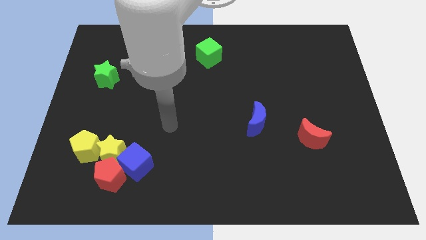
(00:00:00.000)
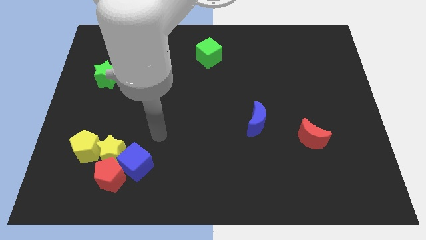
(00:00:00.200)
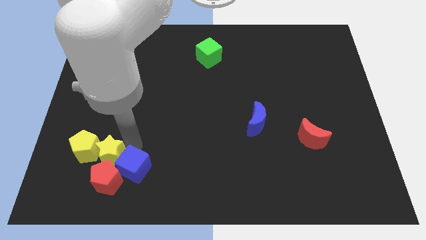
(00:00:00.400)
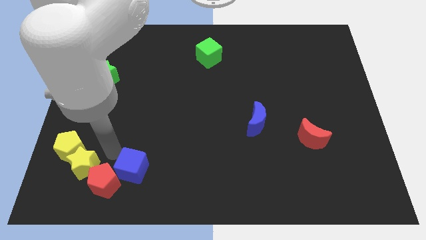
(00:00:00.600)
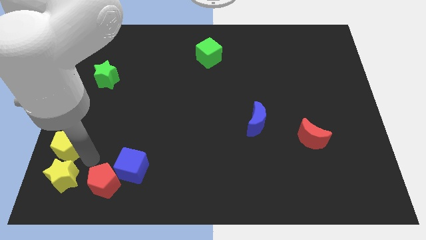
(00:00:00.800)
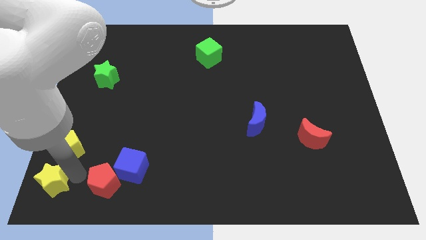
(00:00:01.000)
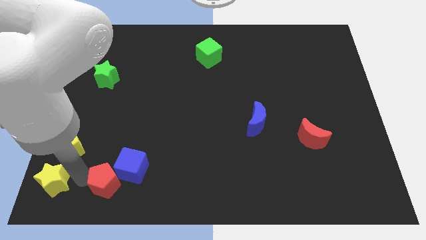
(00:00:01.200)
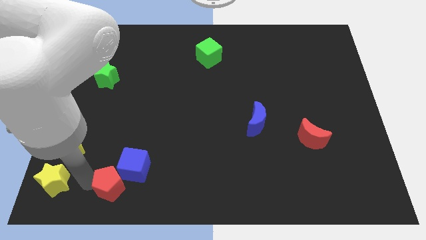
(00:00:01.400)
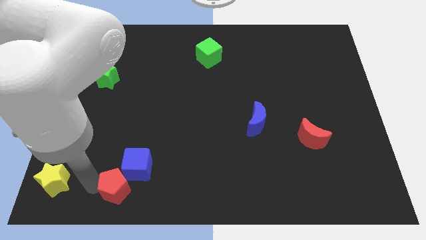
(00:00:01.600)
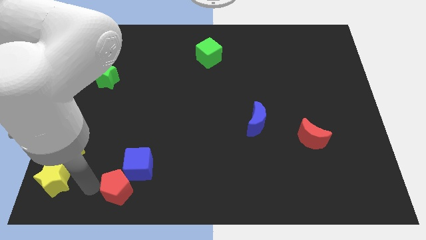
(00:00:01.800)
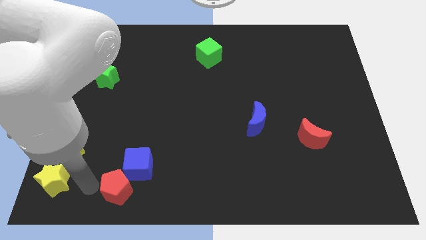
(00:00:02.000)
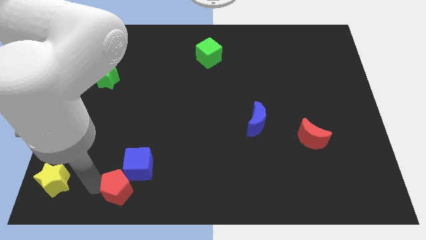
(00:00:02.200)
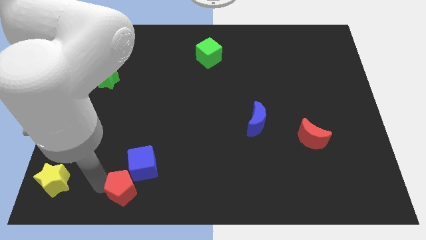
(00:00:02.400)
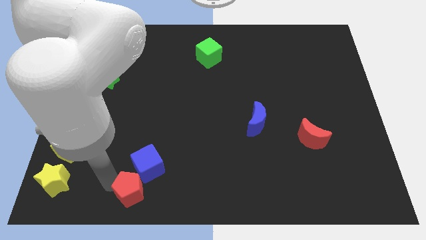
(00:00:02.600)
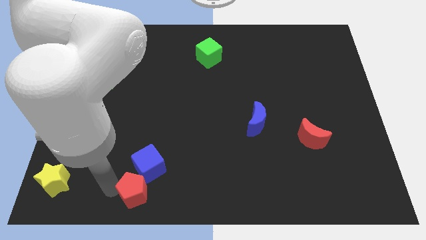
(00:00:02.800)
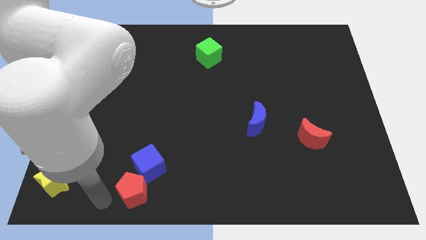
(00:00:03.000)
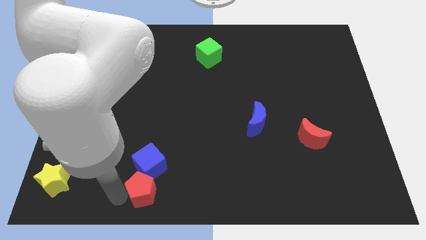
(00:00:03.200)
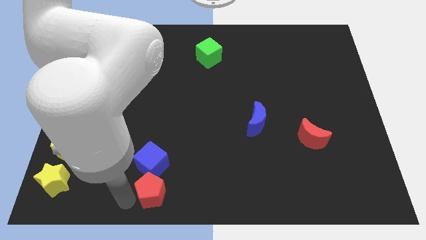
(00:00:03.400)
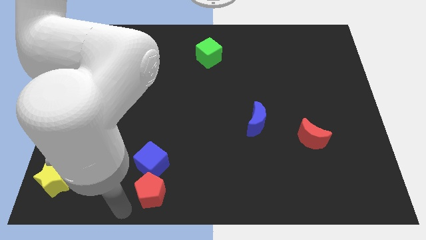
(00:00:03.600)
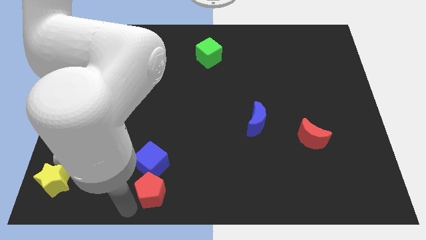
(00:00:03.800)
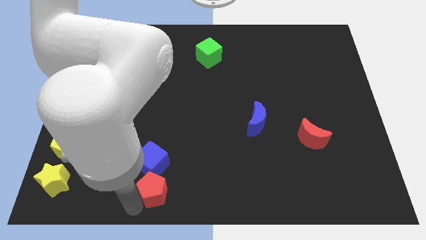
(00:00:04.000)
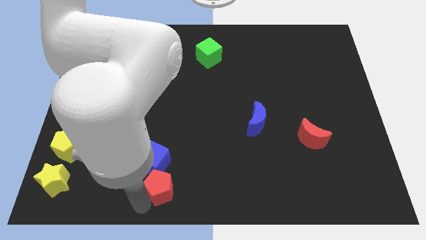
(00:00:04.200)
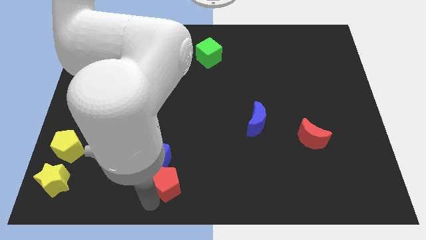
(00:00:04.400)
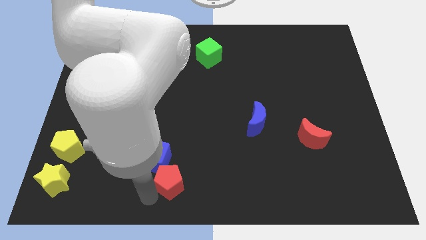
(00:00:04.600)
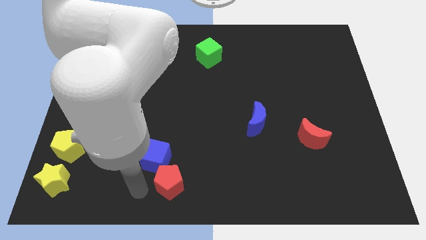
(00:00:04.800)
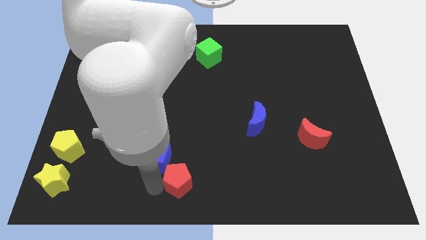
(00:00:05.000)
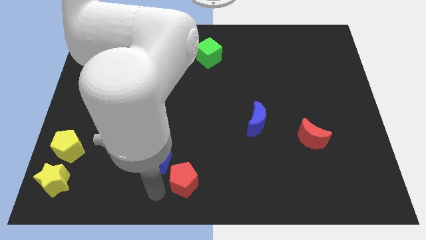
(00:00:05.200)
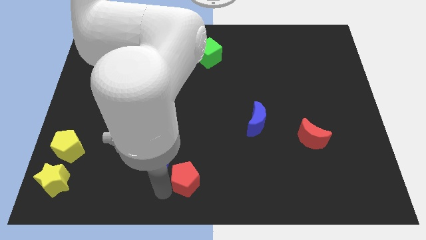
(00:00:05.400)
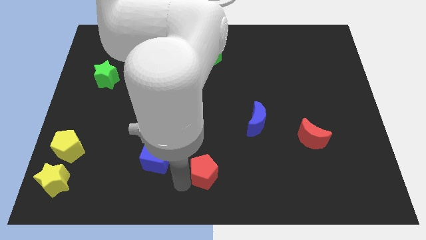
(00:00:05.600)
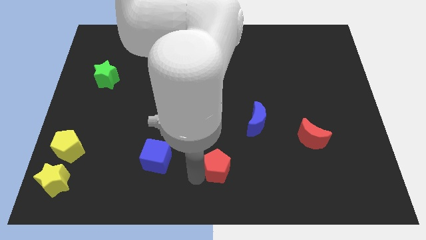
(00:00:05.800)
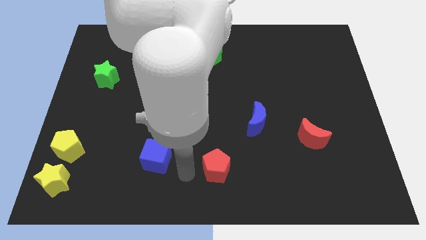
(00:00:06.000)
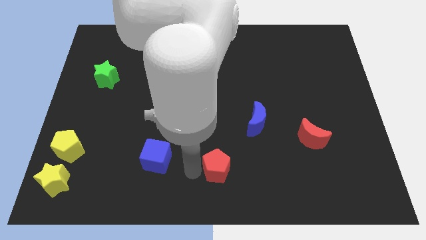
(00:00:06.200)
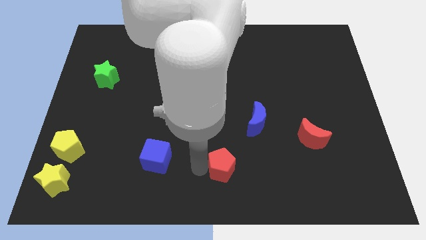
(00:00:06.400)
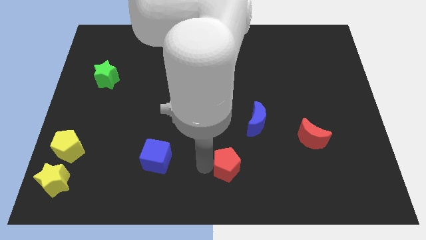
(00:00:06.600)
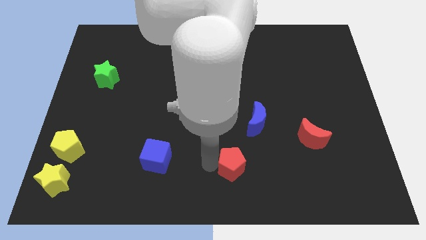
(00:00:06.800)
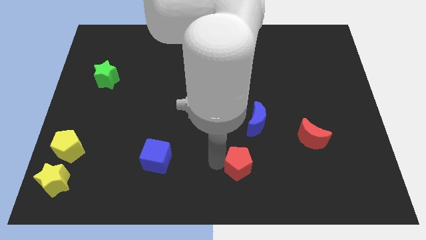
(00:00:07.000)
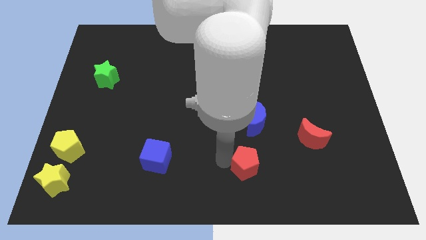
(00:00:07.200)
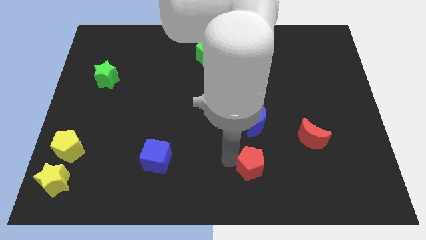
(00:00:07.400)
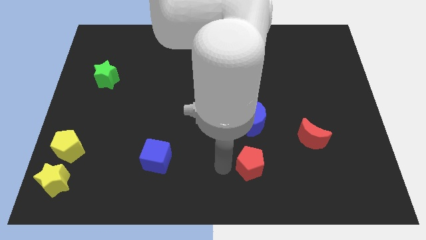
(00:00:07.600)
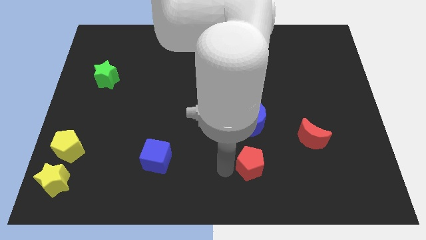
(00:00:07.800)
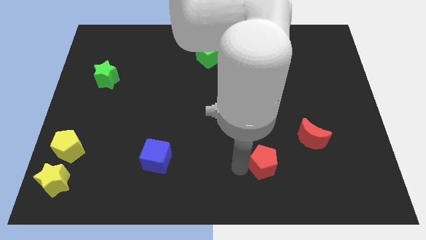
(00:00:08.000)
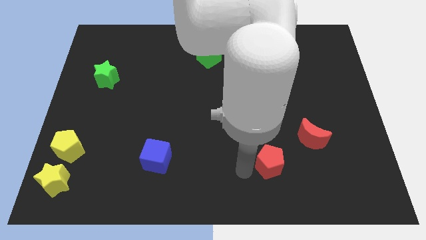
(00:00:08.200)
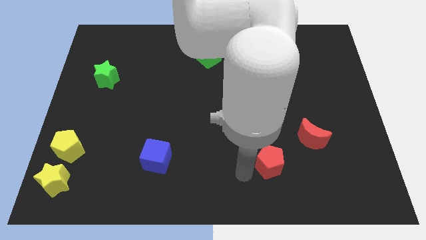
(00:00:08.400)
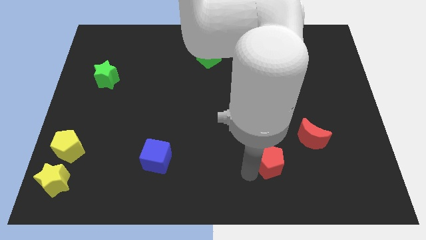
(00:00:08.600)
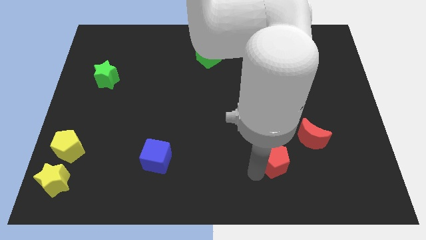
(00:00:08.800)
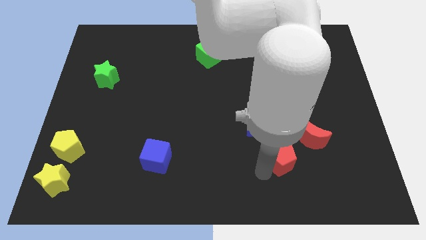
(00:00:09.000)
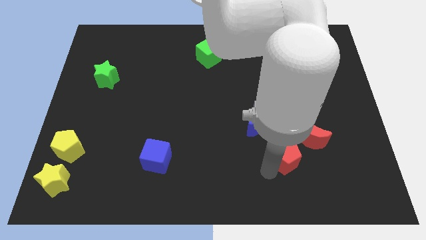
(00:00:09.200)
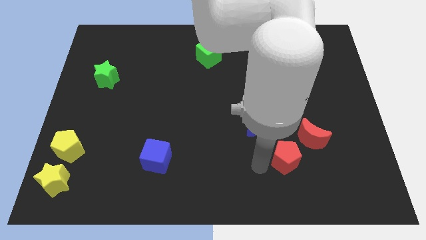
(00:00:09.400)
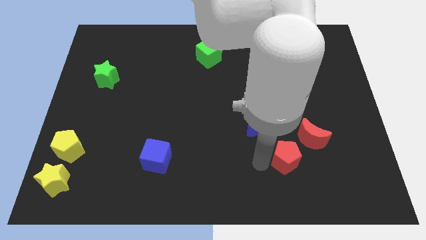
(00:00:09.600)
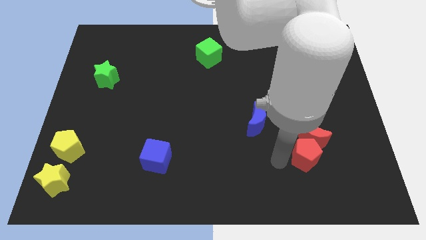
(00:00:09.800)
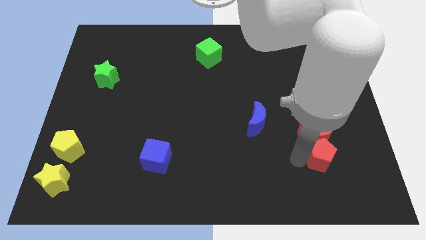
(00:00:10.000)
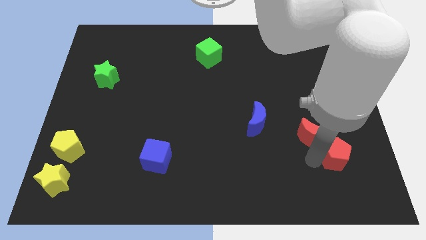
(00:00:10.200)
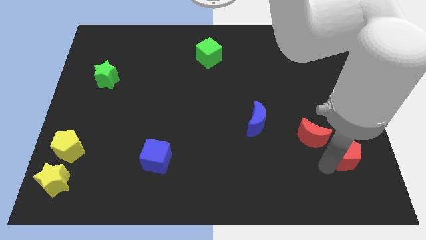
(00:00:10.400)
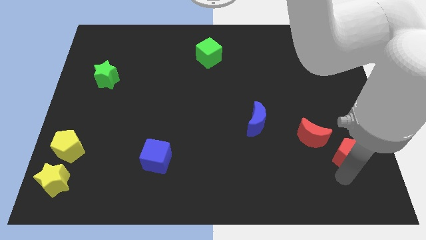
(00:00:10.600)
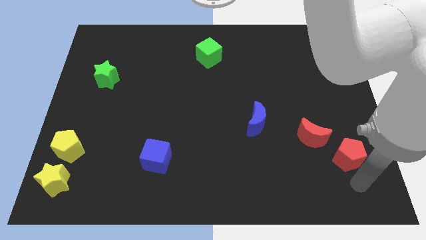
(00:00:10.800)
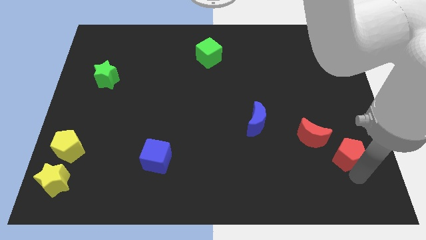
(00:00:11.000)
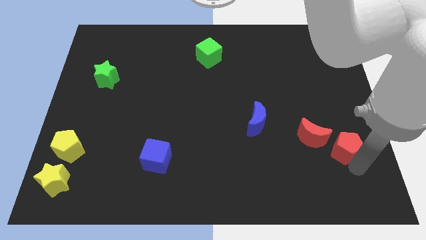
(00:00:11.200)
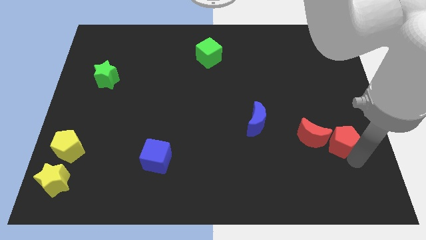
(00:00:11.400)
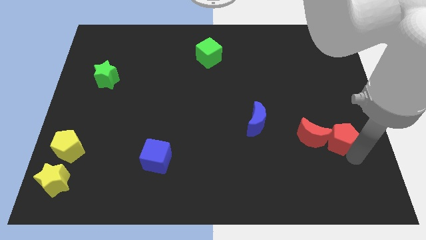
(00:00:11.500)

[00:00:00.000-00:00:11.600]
move the red pentagon to the top right of the red moon

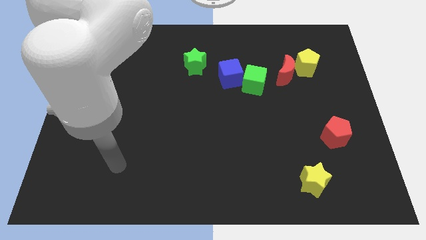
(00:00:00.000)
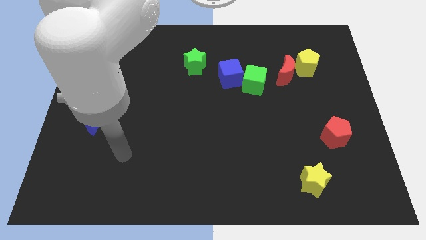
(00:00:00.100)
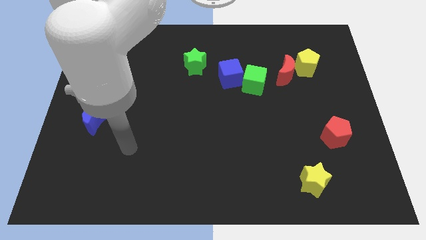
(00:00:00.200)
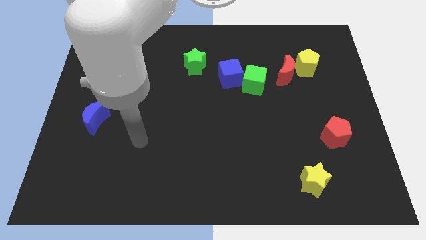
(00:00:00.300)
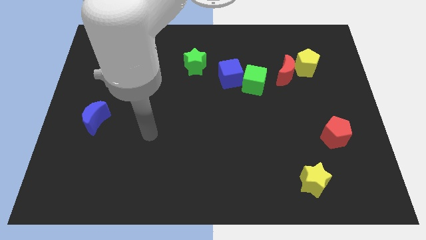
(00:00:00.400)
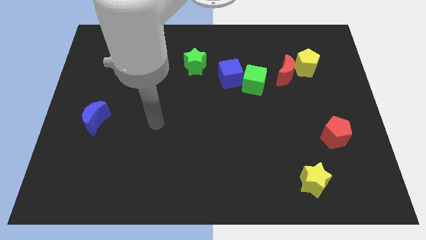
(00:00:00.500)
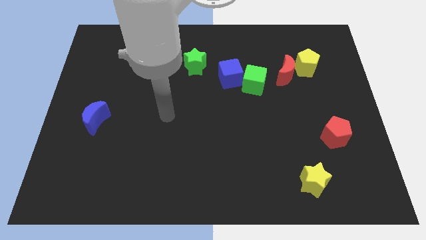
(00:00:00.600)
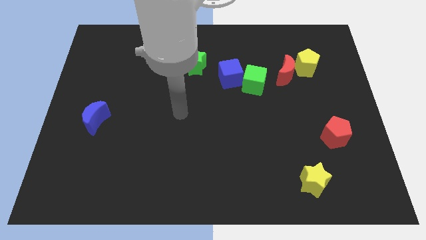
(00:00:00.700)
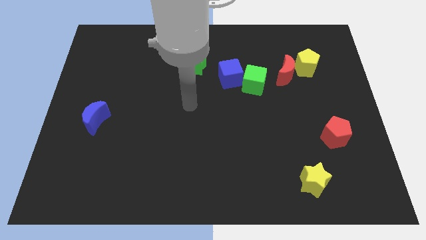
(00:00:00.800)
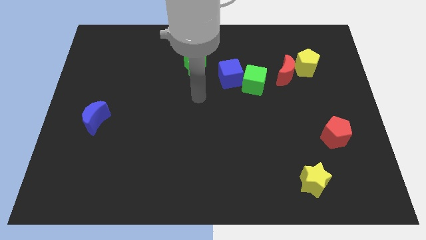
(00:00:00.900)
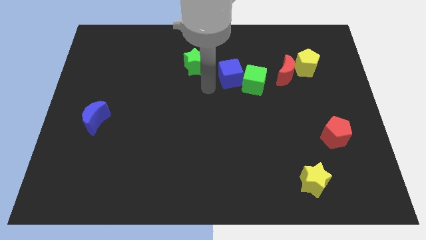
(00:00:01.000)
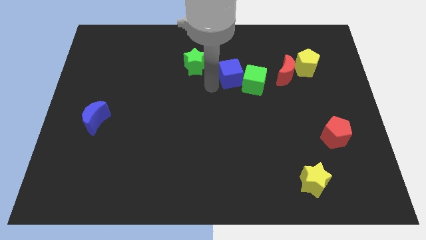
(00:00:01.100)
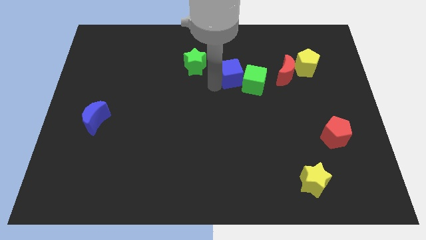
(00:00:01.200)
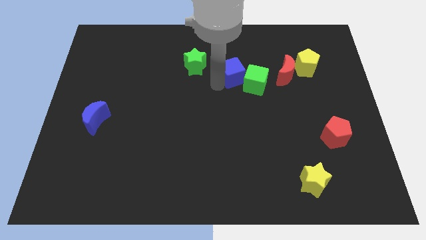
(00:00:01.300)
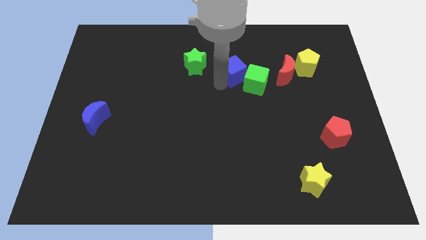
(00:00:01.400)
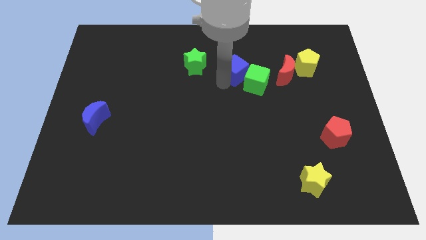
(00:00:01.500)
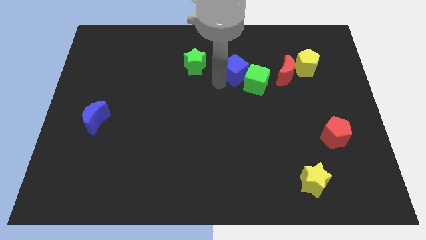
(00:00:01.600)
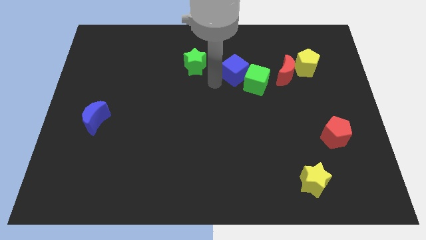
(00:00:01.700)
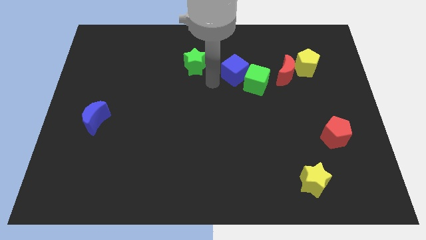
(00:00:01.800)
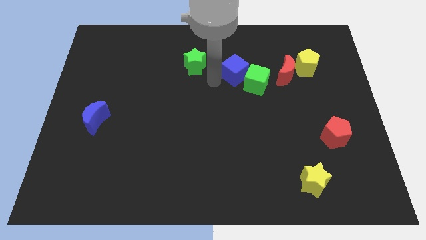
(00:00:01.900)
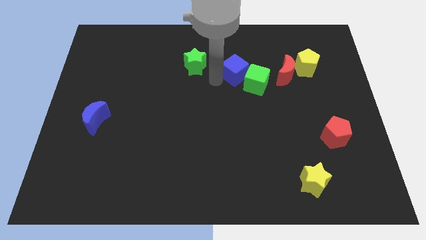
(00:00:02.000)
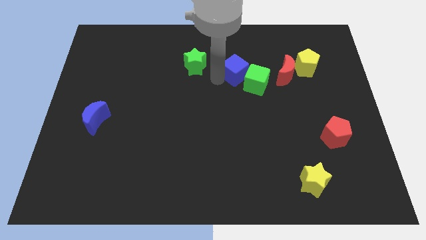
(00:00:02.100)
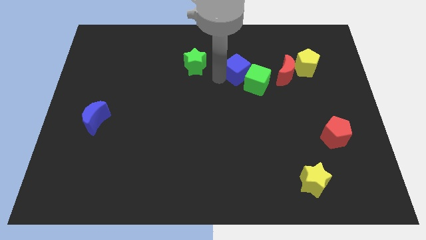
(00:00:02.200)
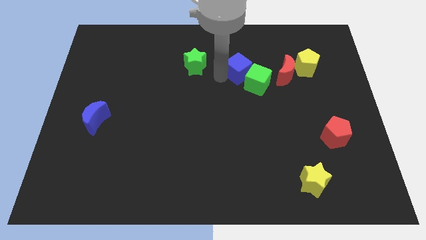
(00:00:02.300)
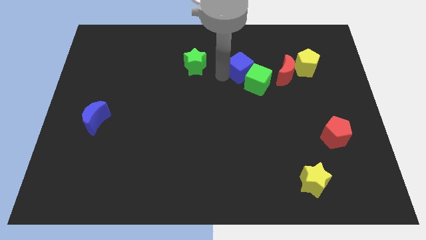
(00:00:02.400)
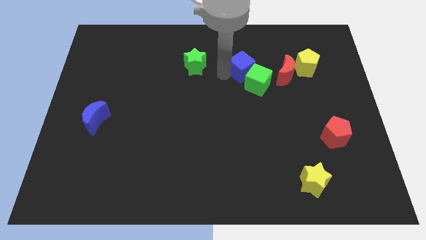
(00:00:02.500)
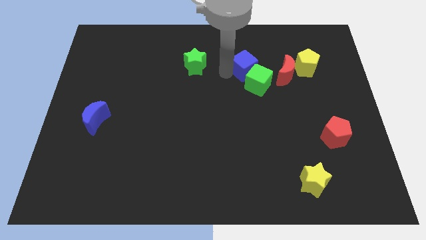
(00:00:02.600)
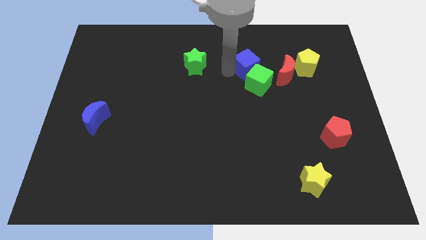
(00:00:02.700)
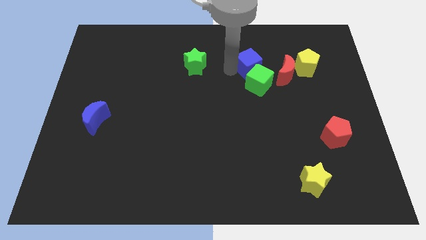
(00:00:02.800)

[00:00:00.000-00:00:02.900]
move the blue cube diagonally up and to the left of the red moon
